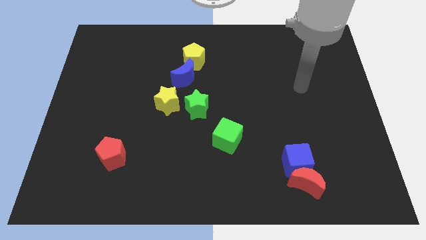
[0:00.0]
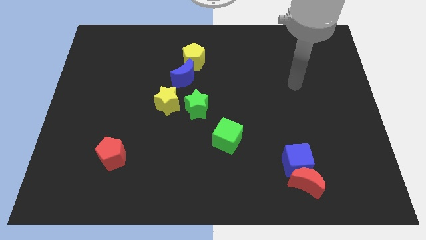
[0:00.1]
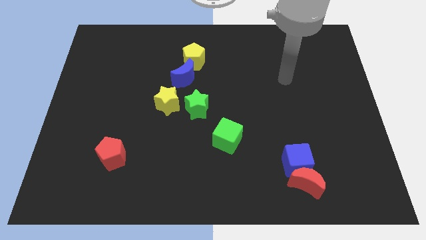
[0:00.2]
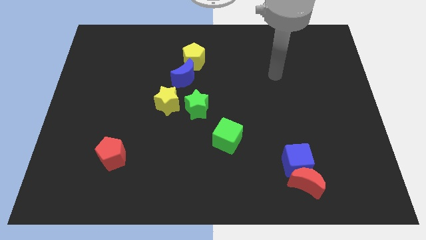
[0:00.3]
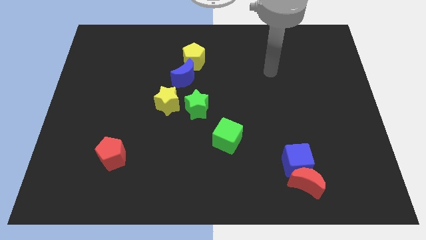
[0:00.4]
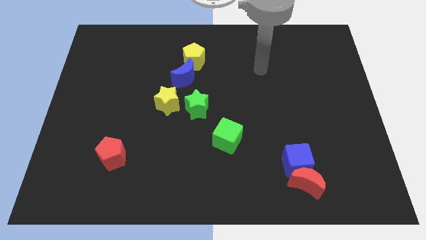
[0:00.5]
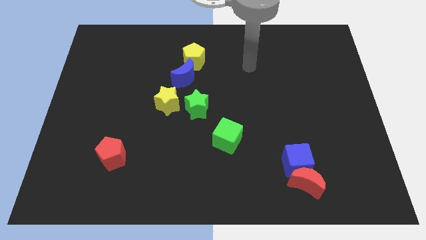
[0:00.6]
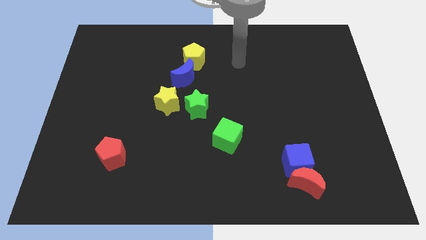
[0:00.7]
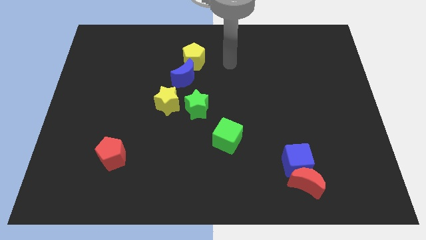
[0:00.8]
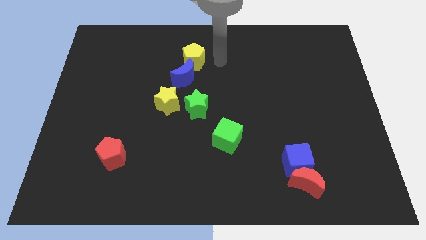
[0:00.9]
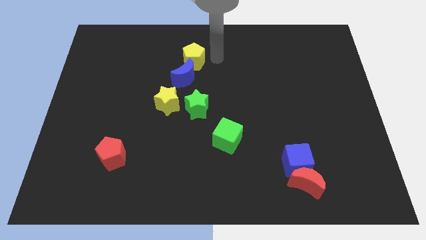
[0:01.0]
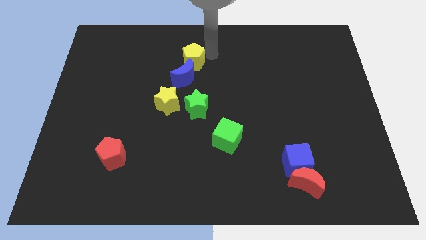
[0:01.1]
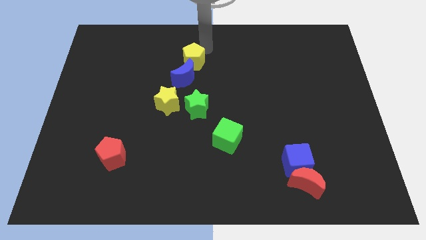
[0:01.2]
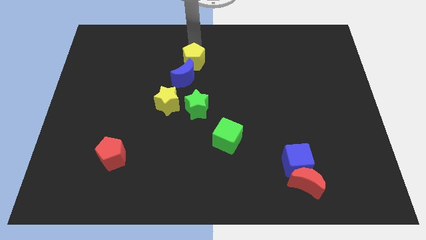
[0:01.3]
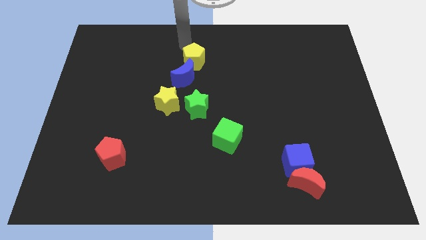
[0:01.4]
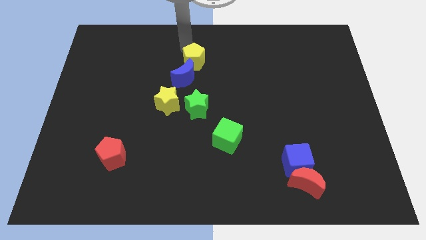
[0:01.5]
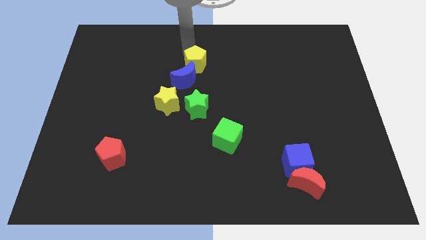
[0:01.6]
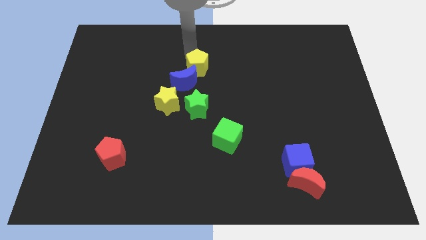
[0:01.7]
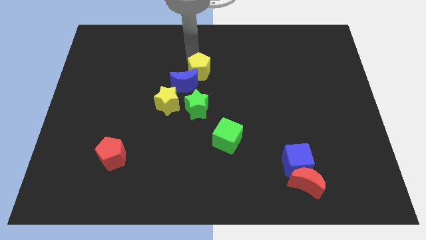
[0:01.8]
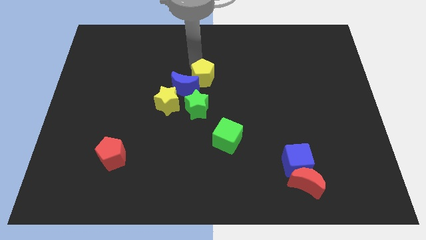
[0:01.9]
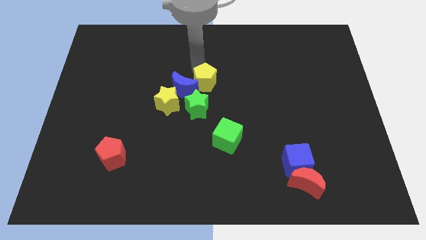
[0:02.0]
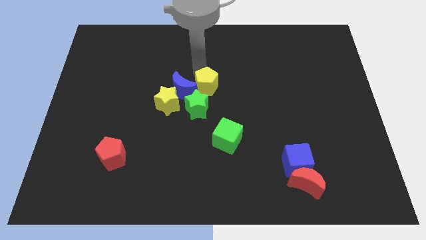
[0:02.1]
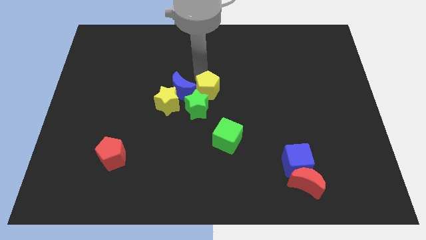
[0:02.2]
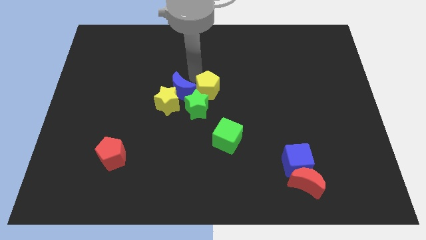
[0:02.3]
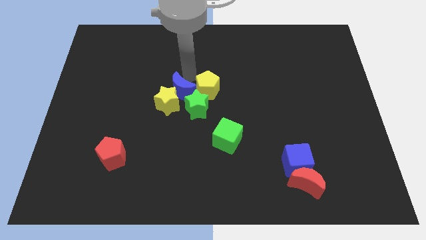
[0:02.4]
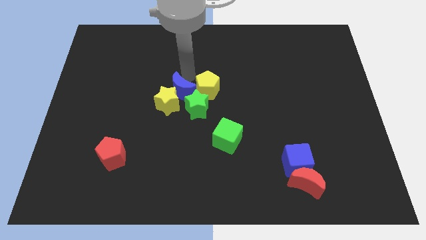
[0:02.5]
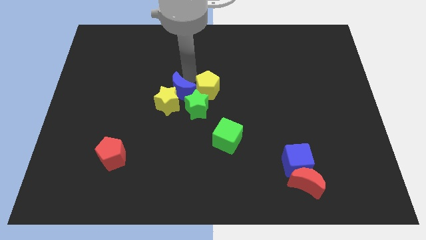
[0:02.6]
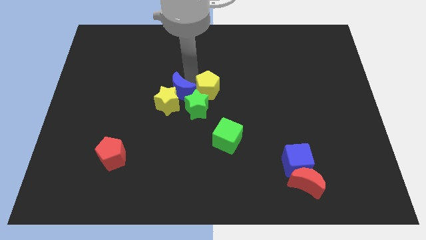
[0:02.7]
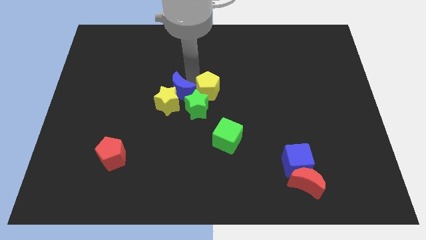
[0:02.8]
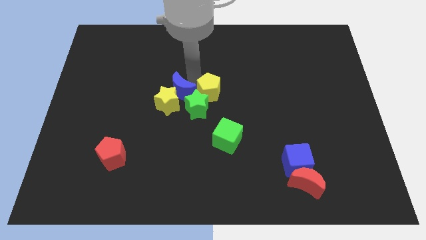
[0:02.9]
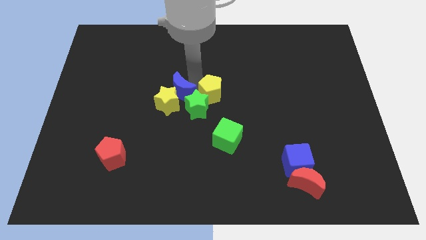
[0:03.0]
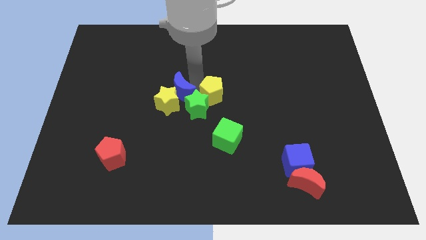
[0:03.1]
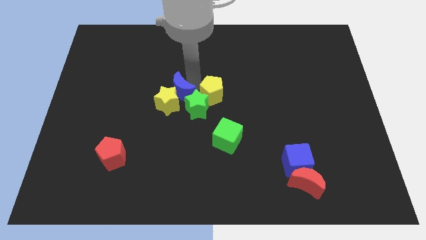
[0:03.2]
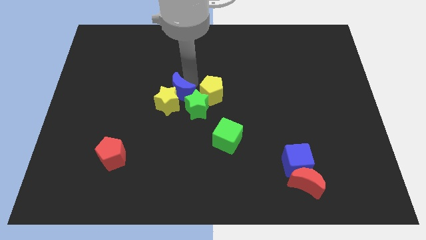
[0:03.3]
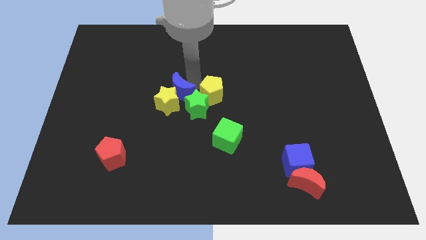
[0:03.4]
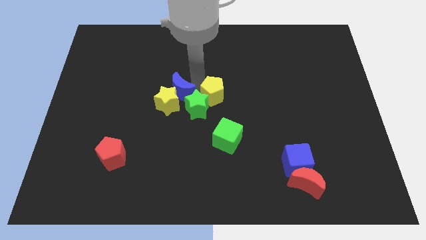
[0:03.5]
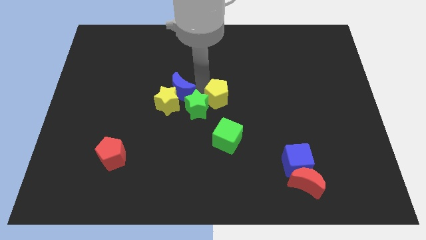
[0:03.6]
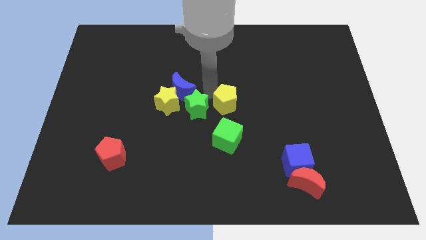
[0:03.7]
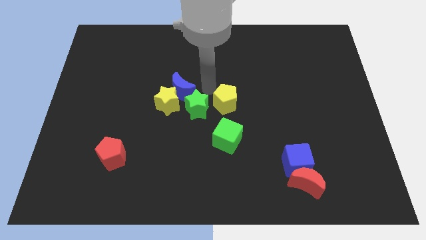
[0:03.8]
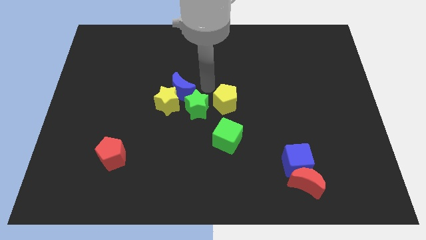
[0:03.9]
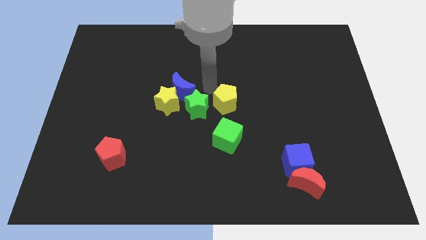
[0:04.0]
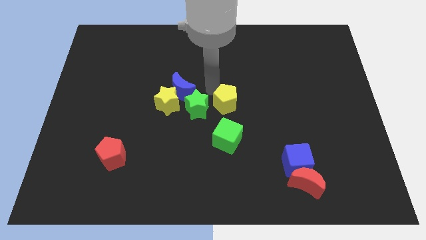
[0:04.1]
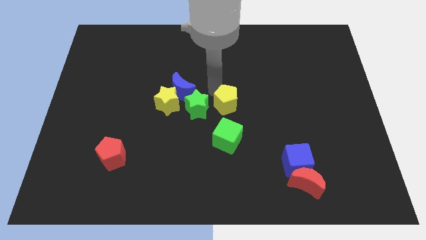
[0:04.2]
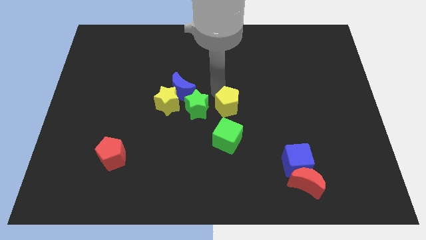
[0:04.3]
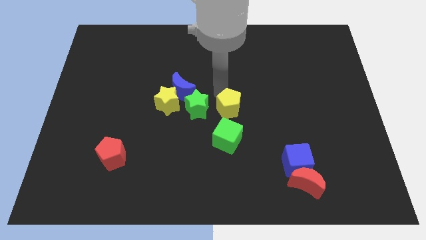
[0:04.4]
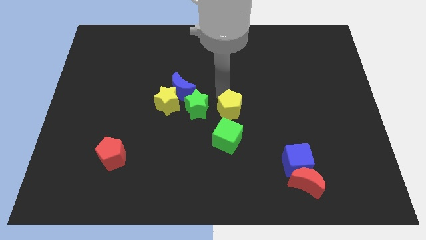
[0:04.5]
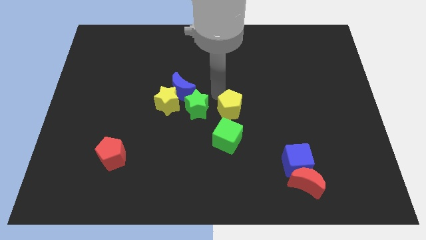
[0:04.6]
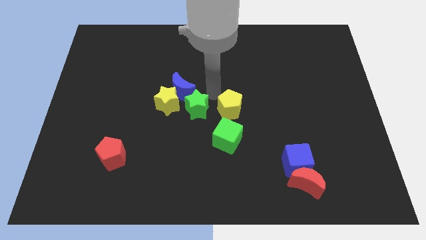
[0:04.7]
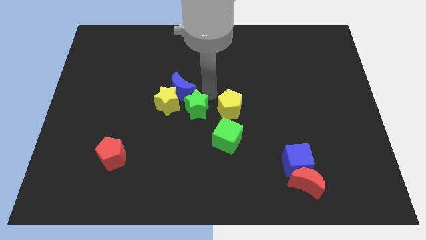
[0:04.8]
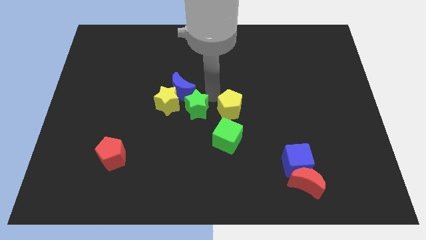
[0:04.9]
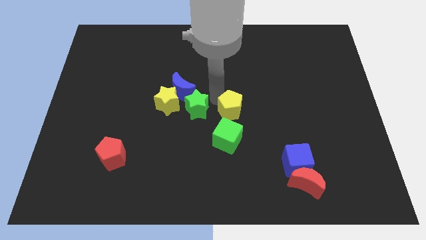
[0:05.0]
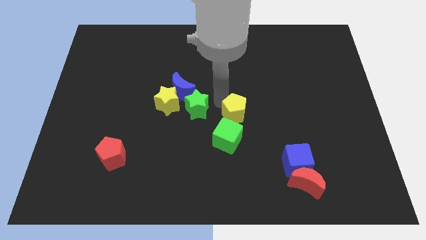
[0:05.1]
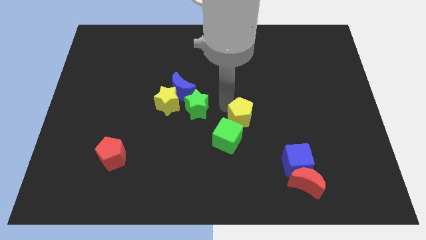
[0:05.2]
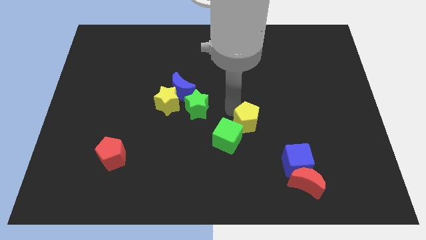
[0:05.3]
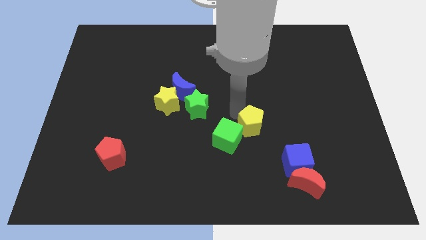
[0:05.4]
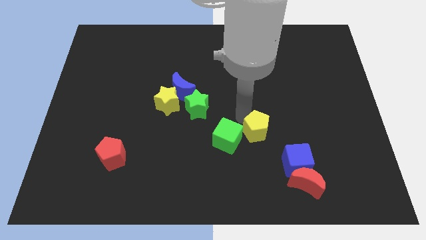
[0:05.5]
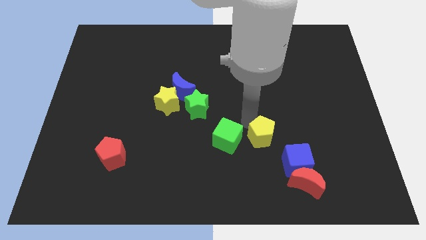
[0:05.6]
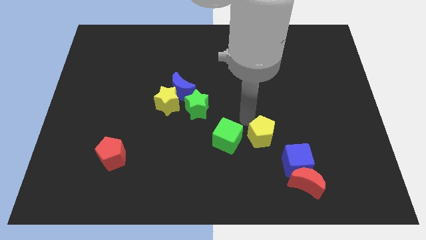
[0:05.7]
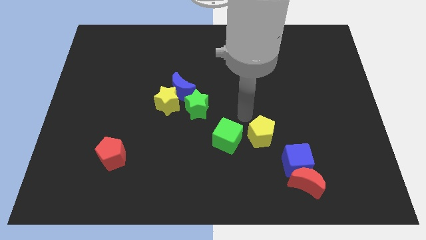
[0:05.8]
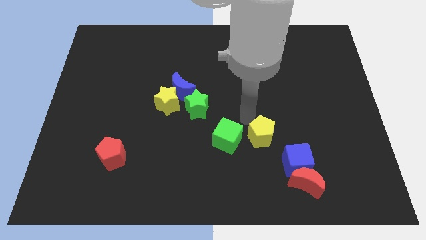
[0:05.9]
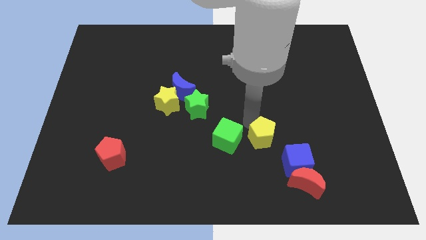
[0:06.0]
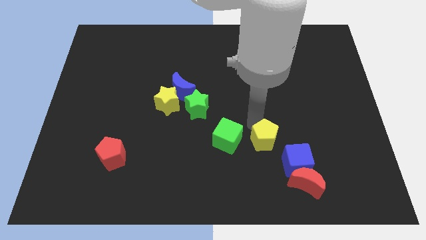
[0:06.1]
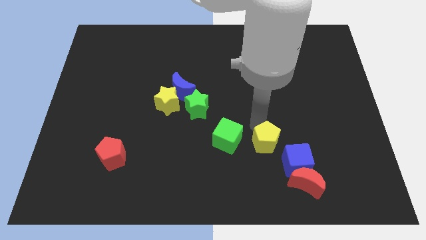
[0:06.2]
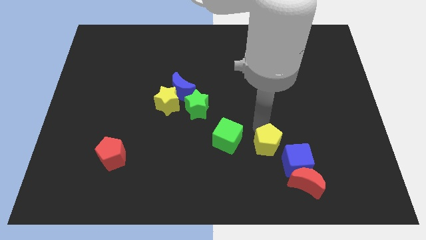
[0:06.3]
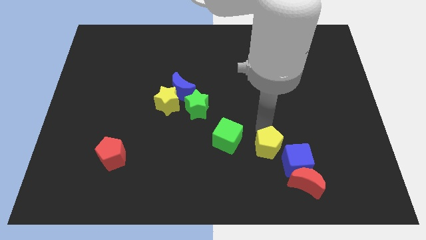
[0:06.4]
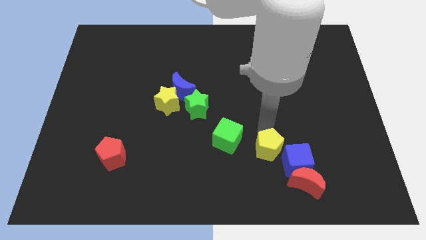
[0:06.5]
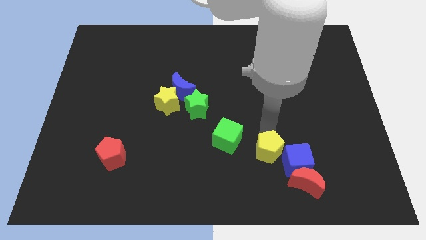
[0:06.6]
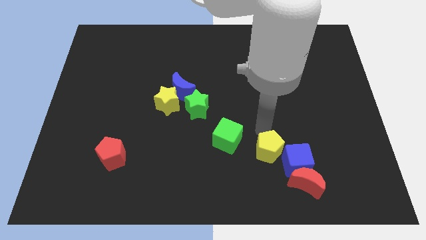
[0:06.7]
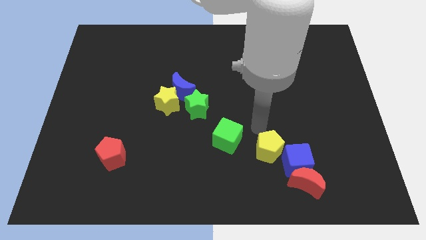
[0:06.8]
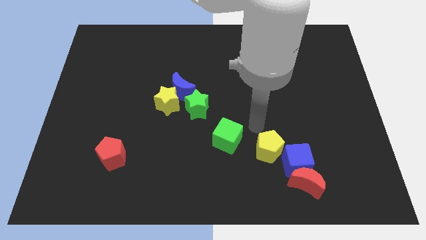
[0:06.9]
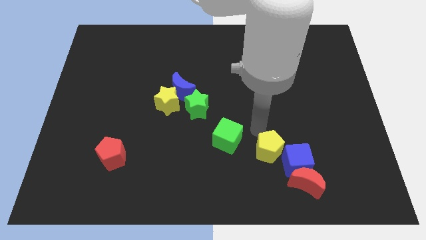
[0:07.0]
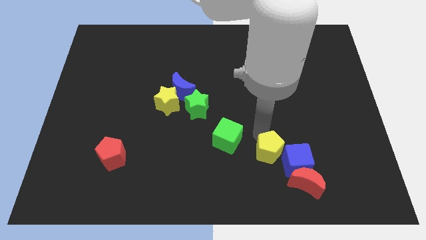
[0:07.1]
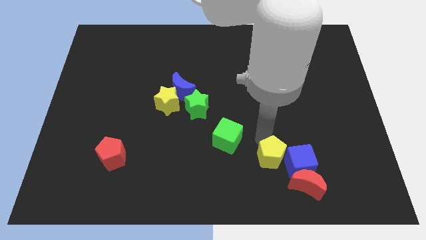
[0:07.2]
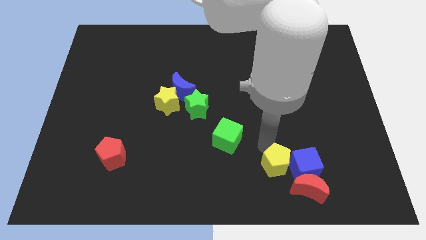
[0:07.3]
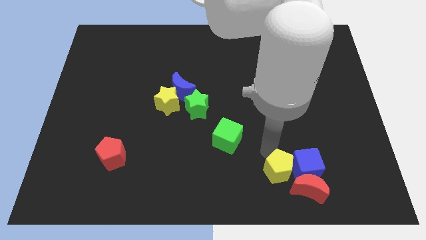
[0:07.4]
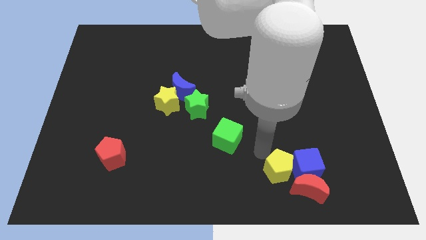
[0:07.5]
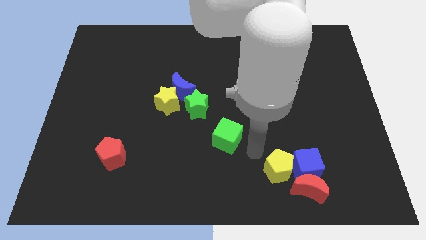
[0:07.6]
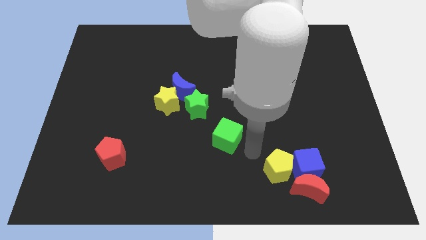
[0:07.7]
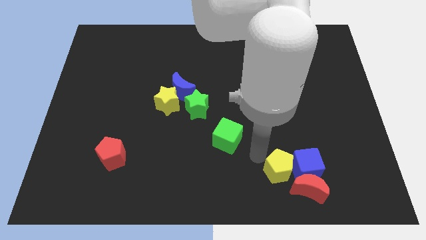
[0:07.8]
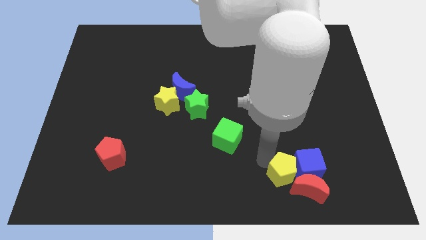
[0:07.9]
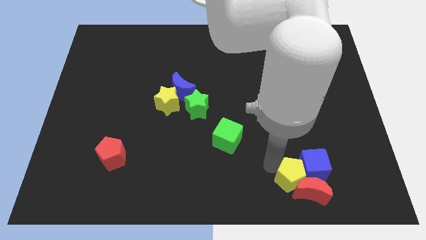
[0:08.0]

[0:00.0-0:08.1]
push the yellow pentagon close to the red moon
